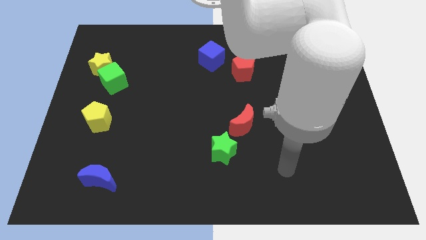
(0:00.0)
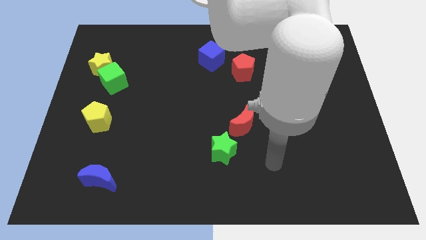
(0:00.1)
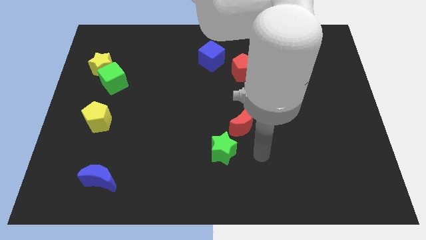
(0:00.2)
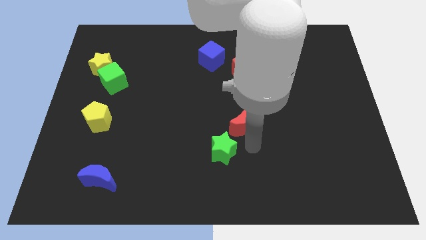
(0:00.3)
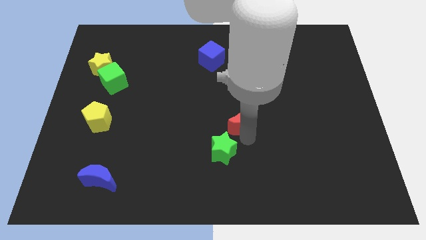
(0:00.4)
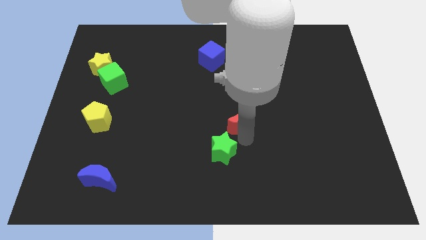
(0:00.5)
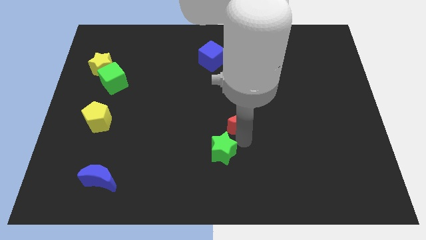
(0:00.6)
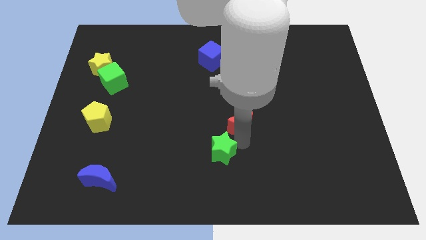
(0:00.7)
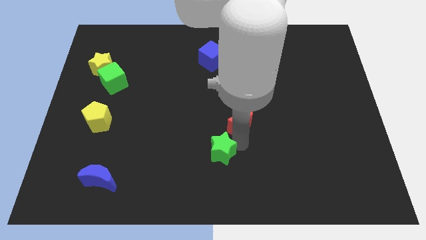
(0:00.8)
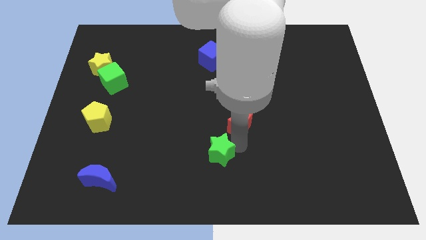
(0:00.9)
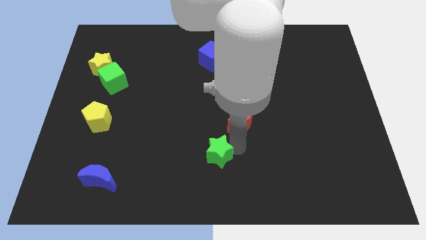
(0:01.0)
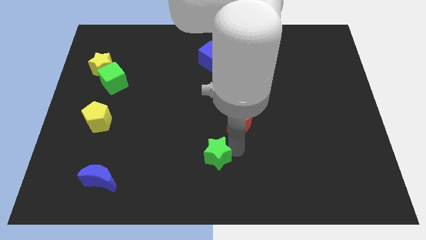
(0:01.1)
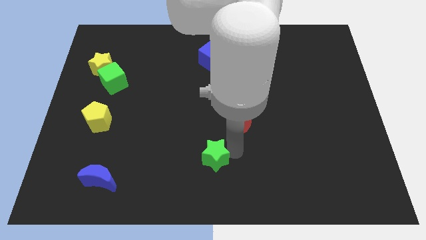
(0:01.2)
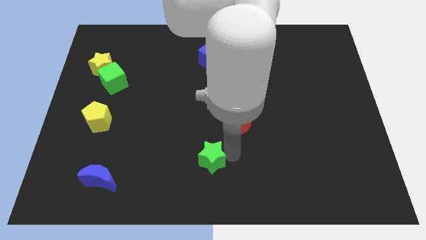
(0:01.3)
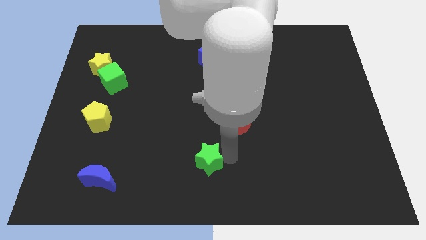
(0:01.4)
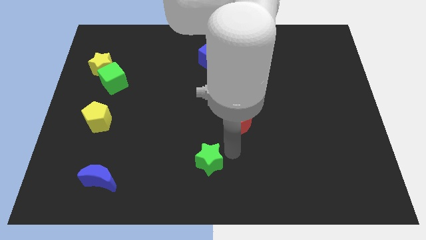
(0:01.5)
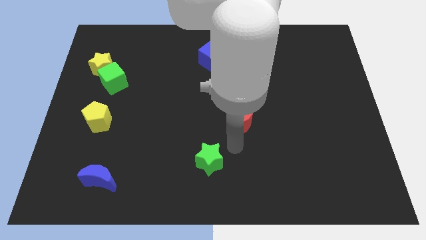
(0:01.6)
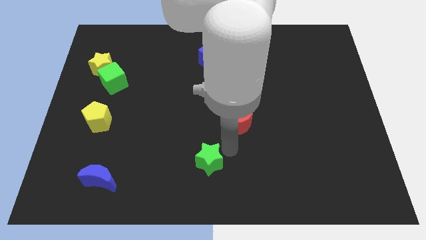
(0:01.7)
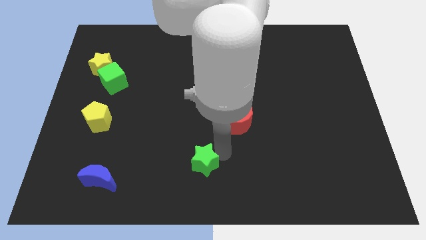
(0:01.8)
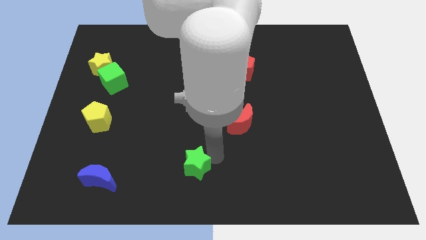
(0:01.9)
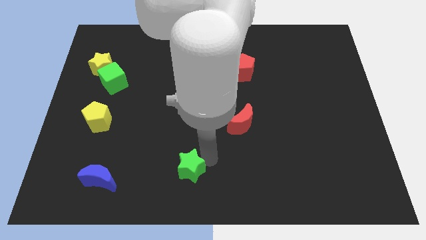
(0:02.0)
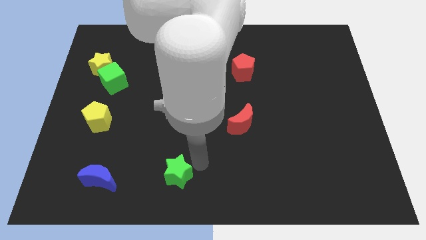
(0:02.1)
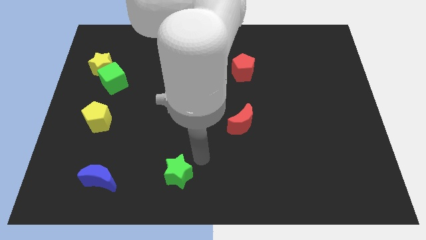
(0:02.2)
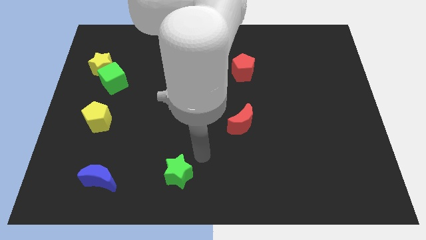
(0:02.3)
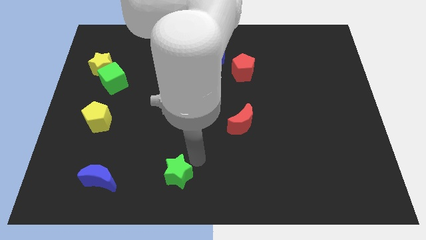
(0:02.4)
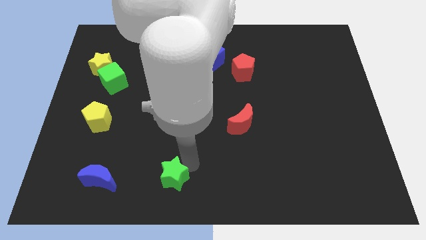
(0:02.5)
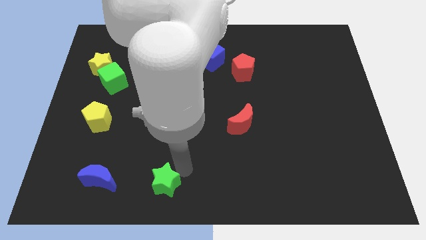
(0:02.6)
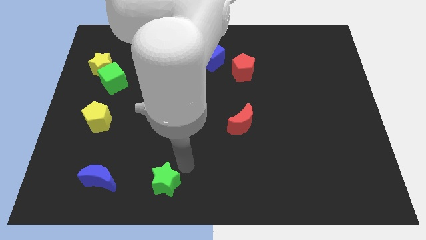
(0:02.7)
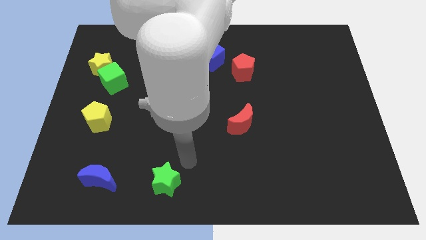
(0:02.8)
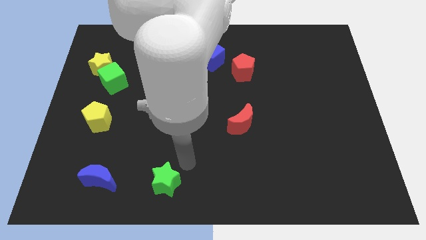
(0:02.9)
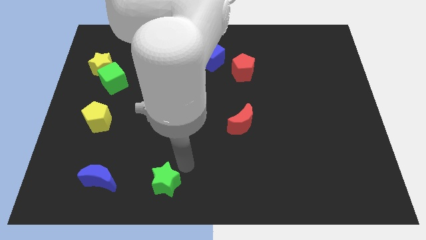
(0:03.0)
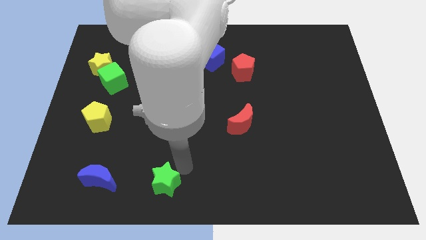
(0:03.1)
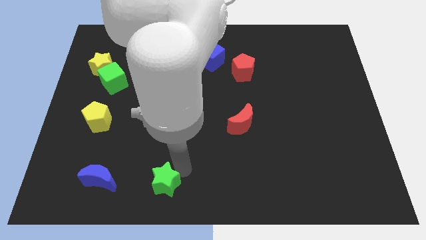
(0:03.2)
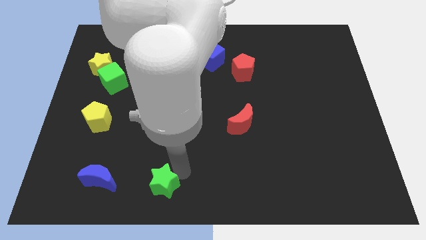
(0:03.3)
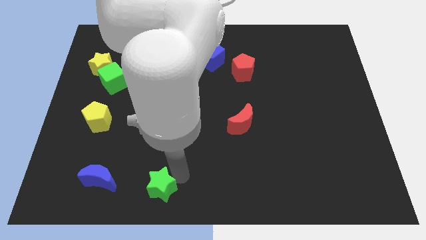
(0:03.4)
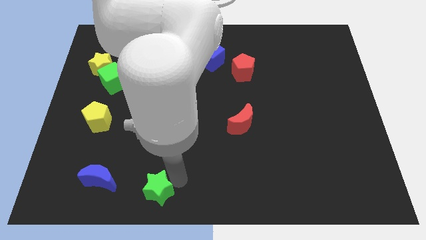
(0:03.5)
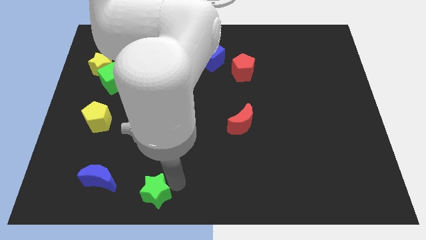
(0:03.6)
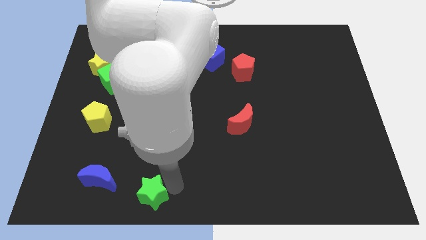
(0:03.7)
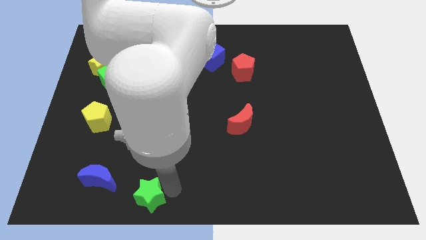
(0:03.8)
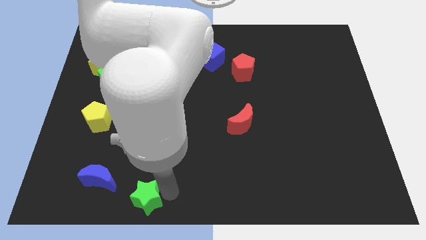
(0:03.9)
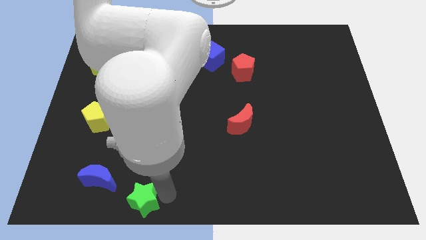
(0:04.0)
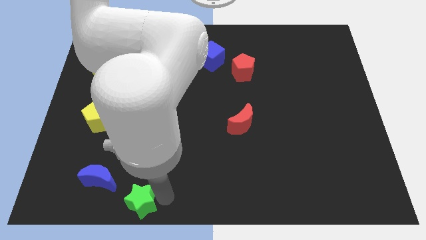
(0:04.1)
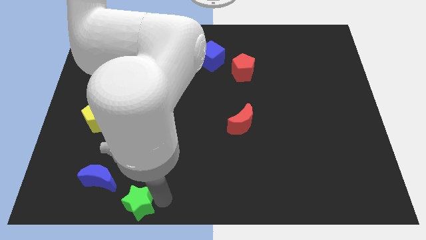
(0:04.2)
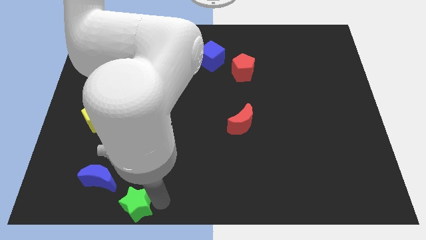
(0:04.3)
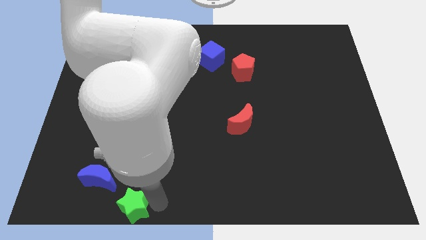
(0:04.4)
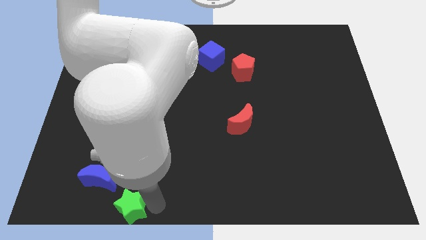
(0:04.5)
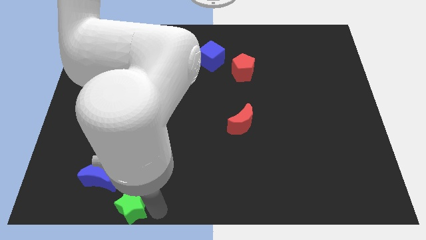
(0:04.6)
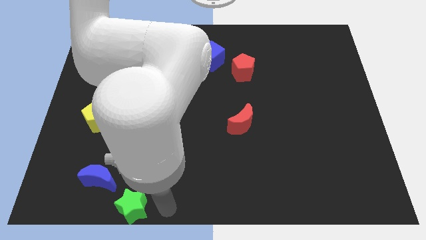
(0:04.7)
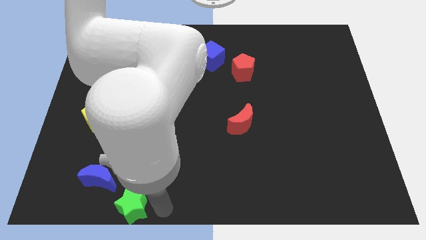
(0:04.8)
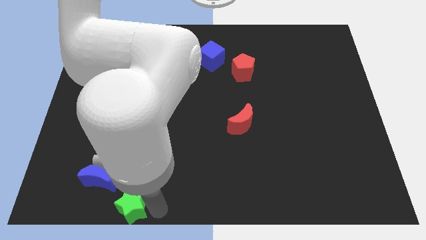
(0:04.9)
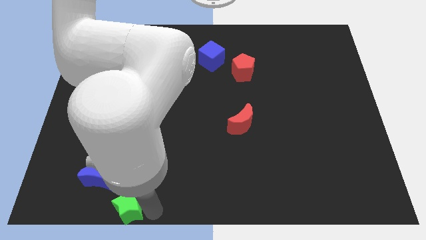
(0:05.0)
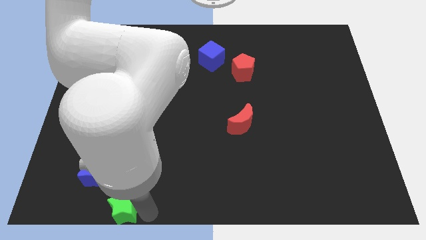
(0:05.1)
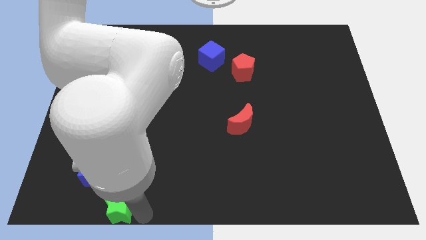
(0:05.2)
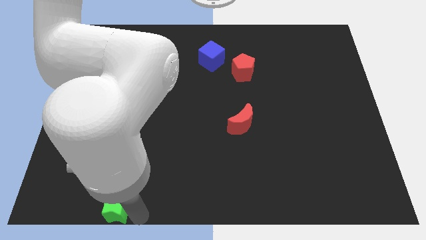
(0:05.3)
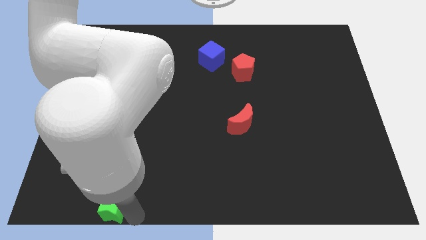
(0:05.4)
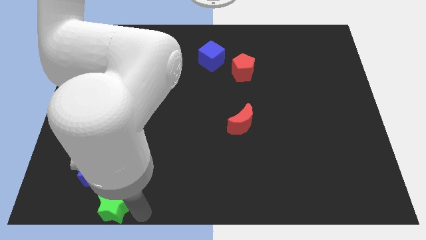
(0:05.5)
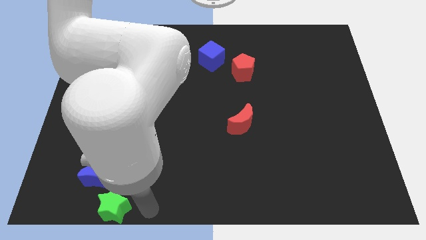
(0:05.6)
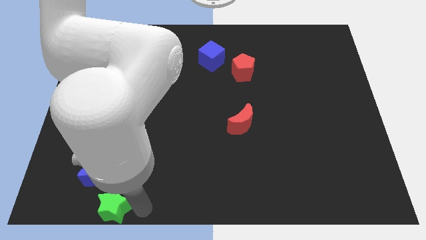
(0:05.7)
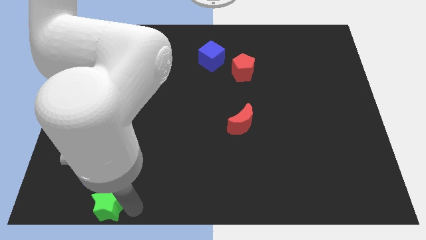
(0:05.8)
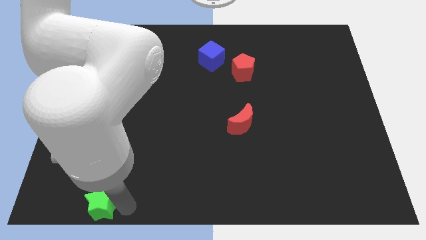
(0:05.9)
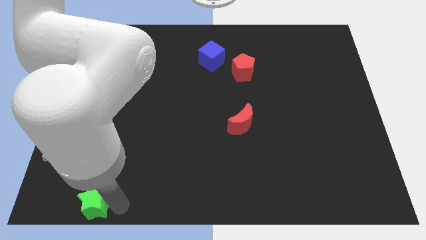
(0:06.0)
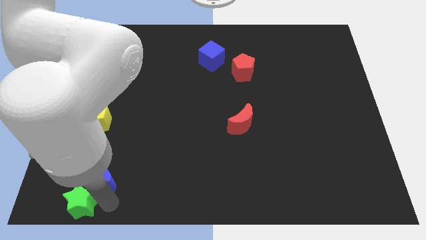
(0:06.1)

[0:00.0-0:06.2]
move the green star to the bottom left of the board
